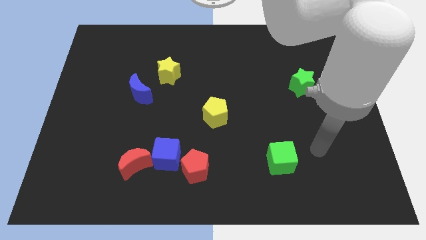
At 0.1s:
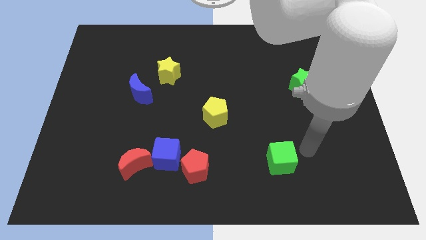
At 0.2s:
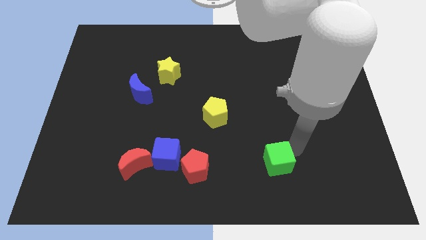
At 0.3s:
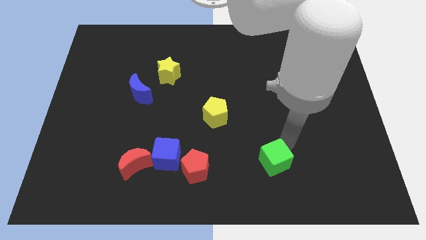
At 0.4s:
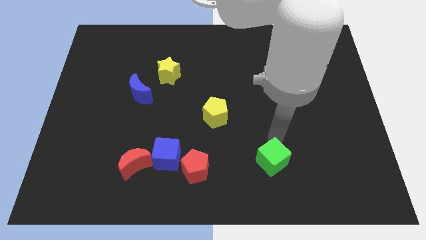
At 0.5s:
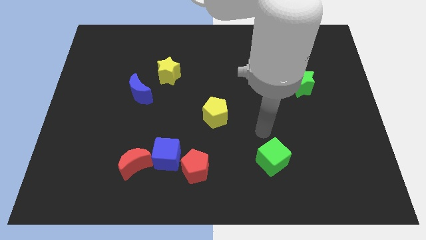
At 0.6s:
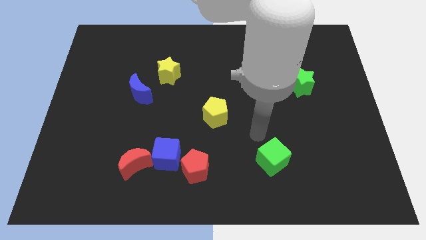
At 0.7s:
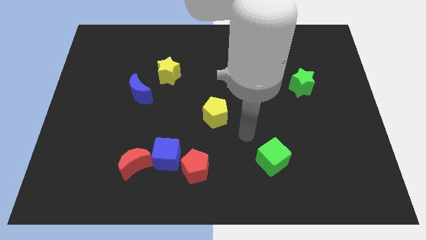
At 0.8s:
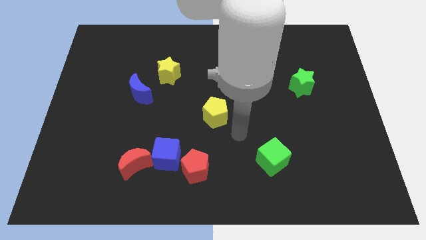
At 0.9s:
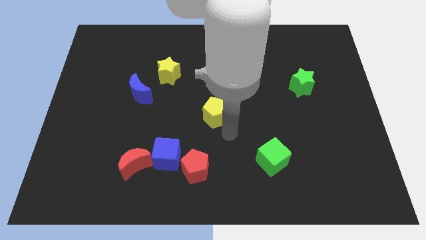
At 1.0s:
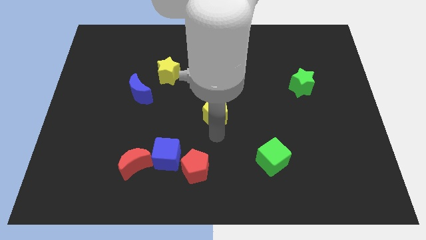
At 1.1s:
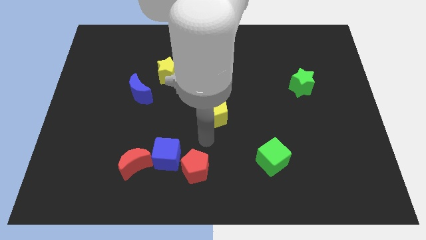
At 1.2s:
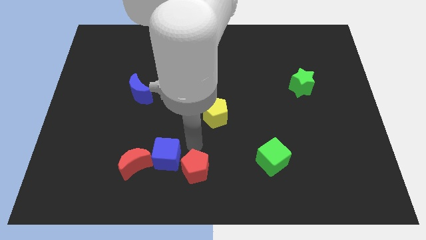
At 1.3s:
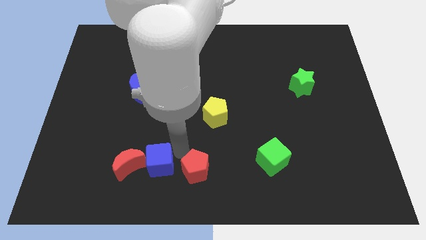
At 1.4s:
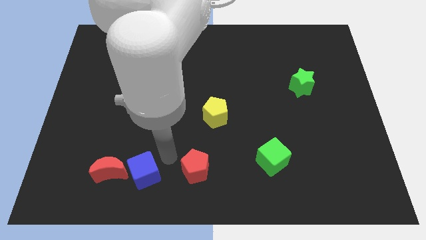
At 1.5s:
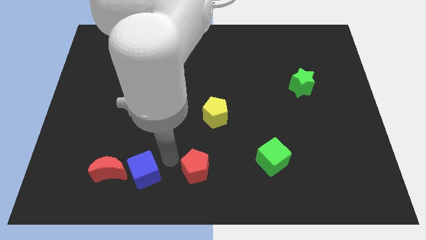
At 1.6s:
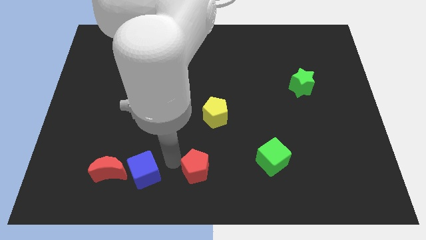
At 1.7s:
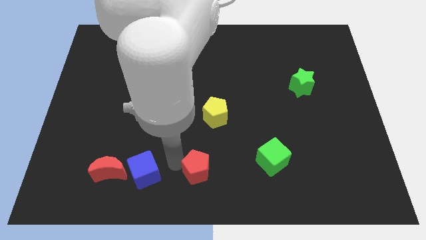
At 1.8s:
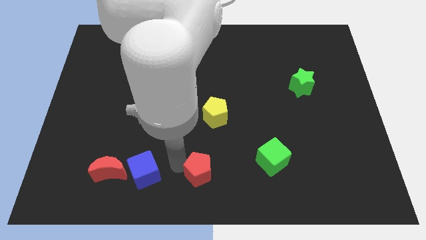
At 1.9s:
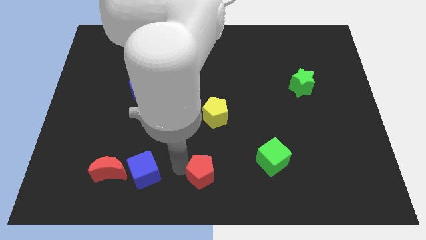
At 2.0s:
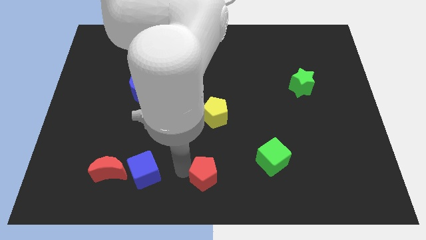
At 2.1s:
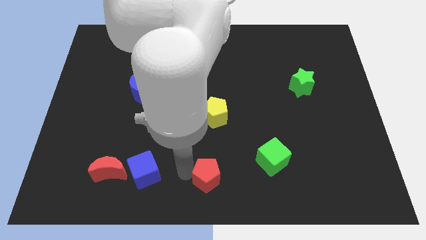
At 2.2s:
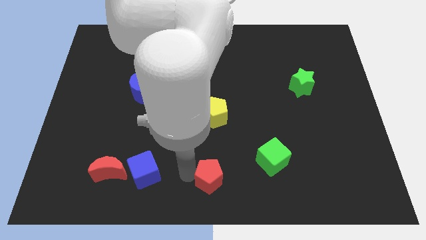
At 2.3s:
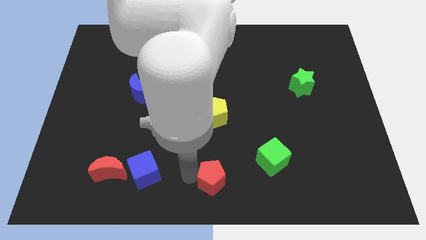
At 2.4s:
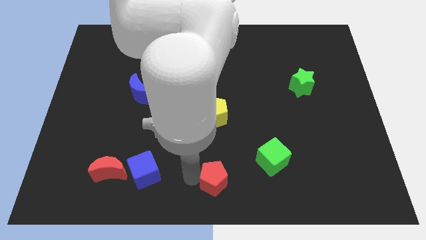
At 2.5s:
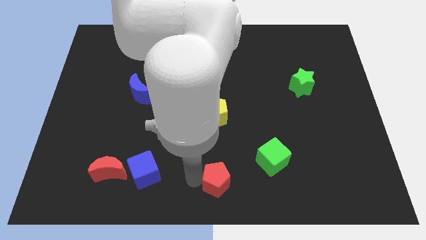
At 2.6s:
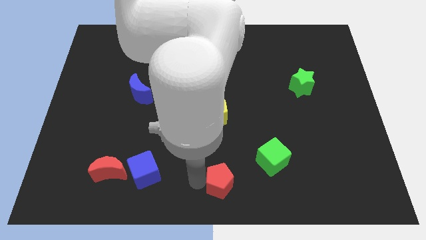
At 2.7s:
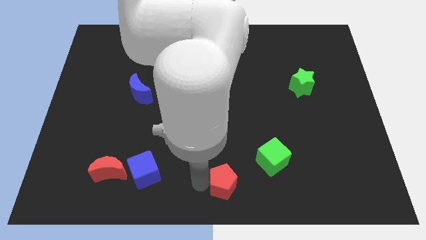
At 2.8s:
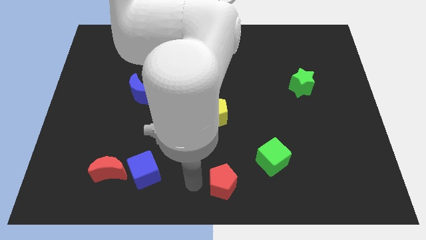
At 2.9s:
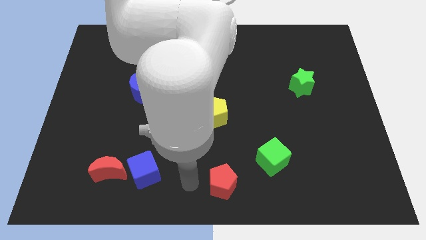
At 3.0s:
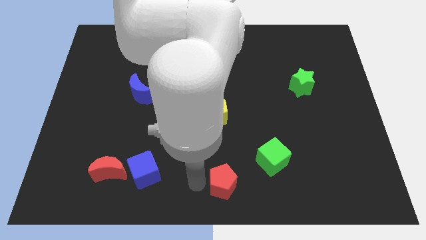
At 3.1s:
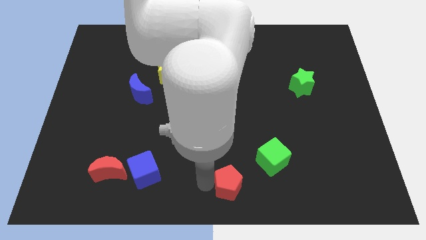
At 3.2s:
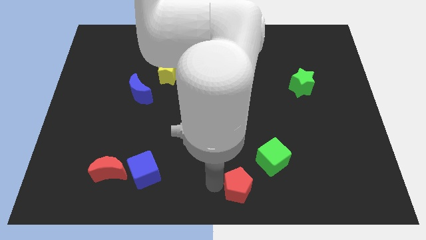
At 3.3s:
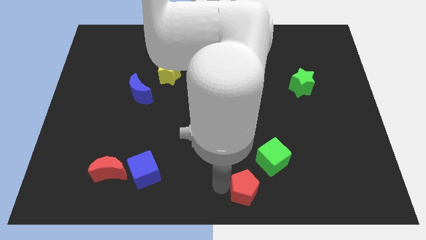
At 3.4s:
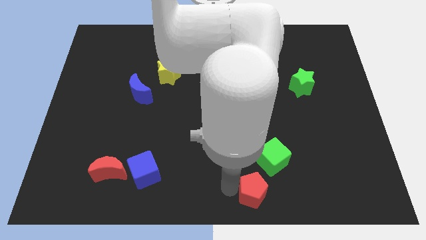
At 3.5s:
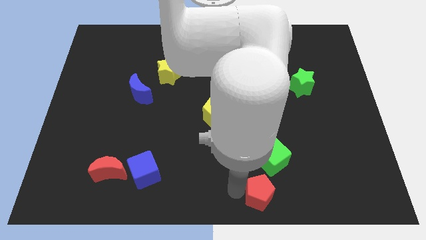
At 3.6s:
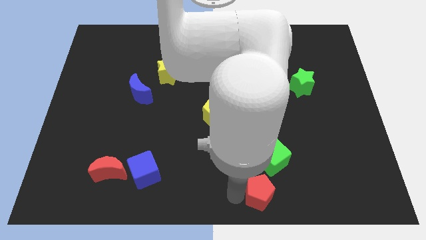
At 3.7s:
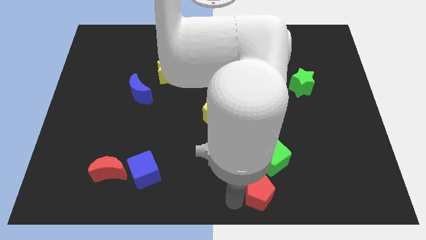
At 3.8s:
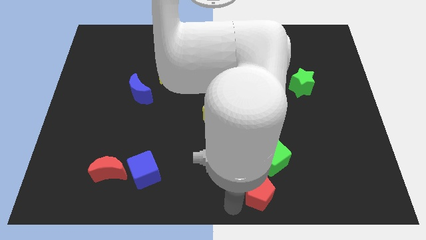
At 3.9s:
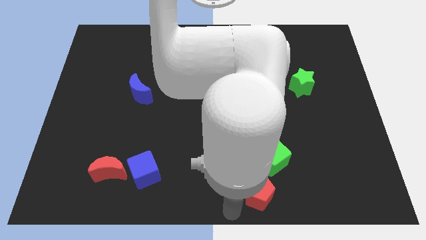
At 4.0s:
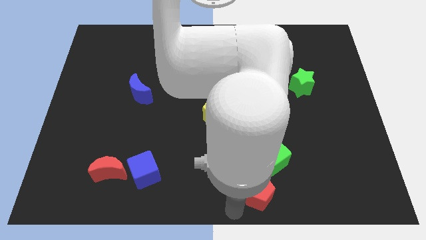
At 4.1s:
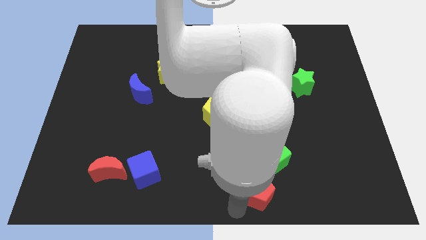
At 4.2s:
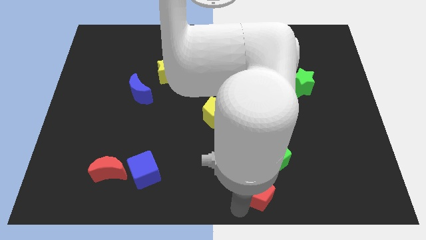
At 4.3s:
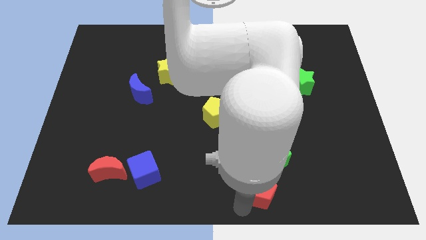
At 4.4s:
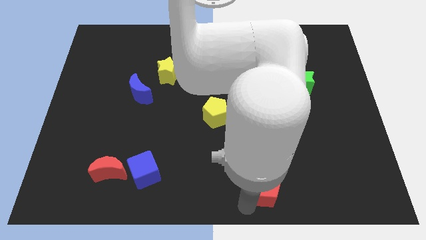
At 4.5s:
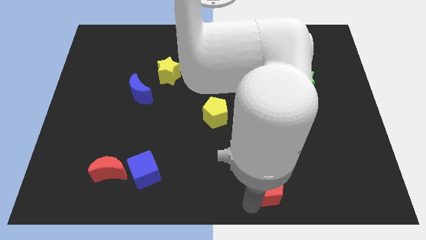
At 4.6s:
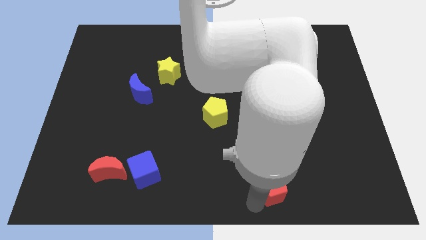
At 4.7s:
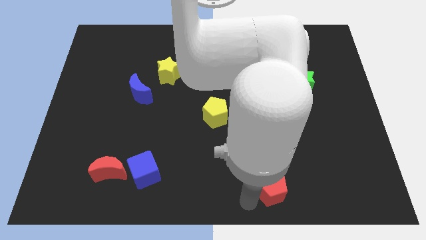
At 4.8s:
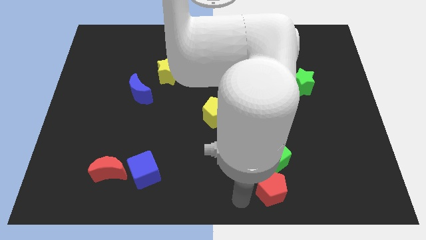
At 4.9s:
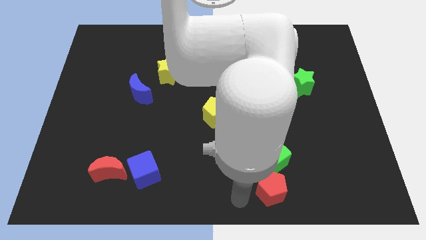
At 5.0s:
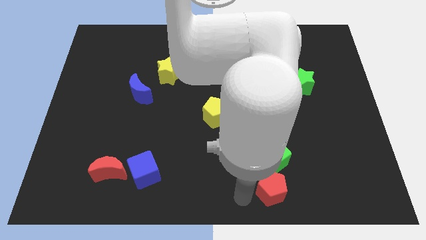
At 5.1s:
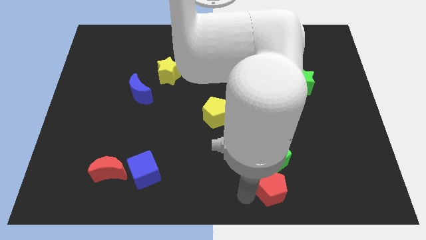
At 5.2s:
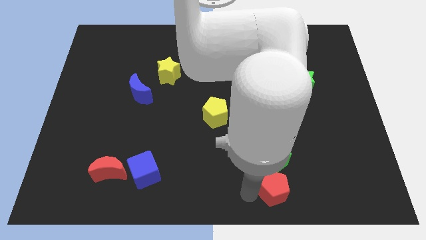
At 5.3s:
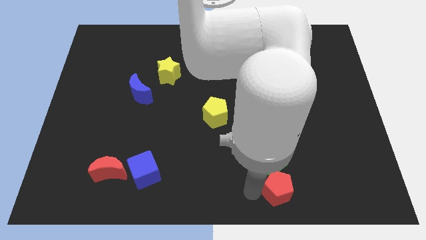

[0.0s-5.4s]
push the red pentagon diagonally down and to the right of the green cube

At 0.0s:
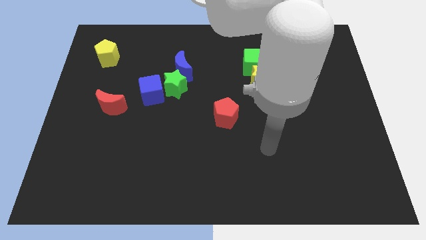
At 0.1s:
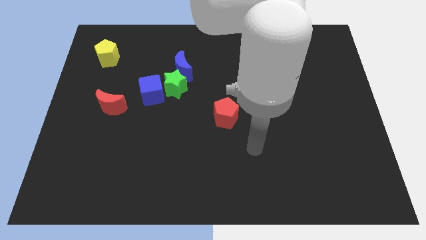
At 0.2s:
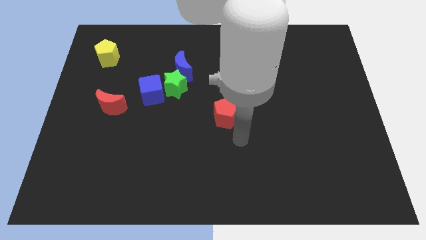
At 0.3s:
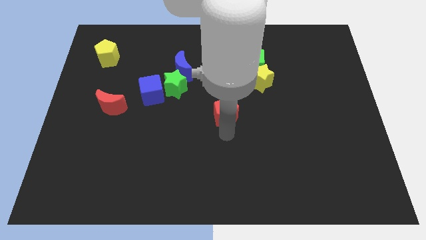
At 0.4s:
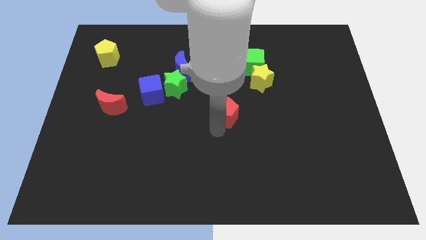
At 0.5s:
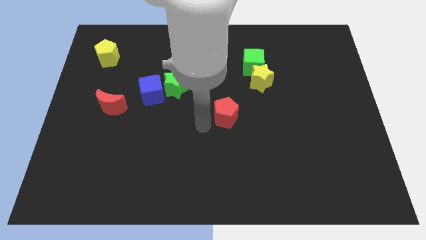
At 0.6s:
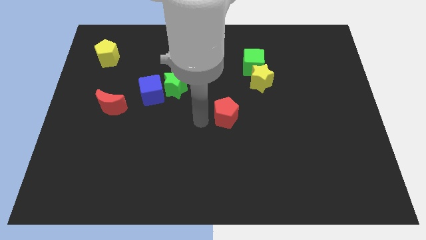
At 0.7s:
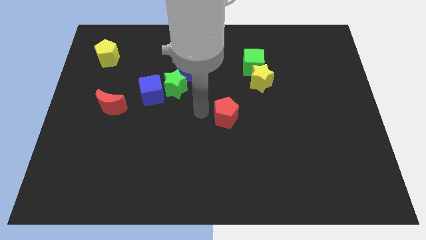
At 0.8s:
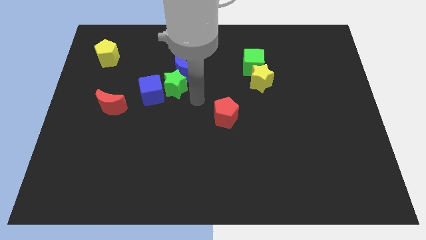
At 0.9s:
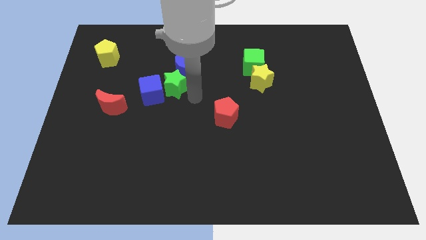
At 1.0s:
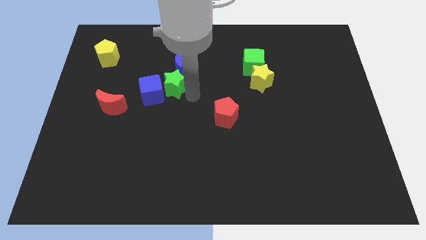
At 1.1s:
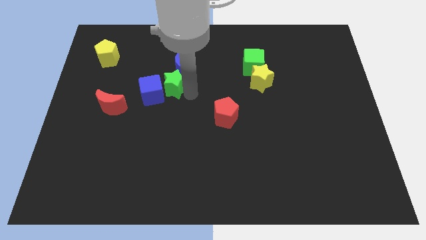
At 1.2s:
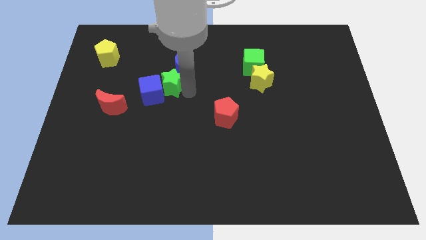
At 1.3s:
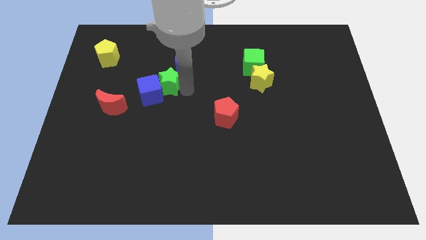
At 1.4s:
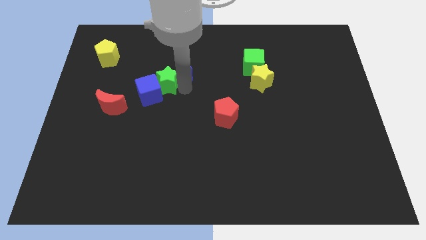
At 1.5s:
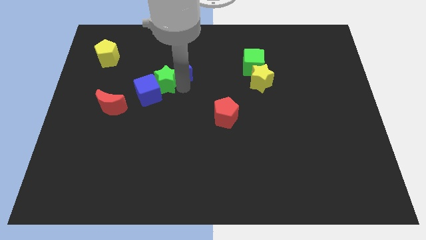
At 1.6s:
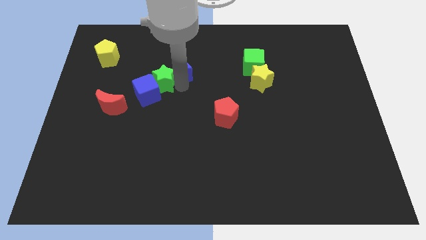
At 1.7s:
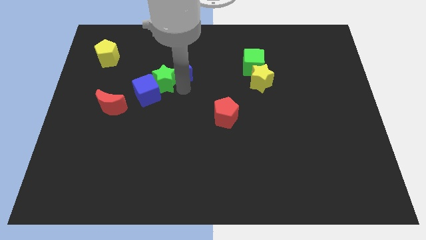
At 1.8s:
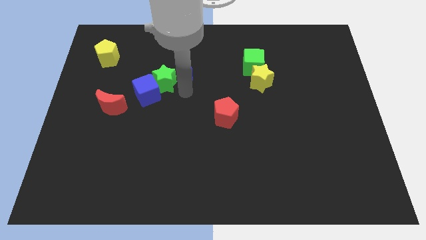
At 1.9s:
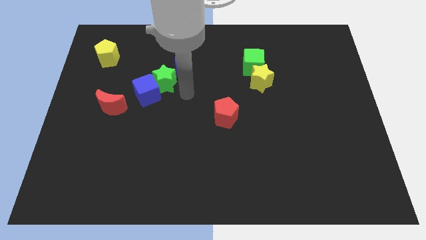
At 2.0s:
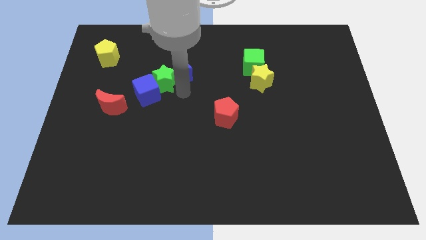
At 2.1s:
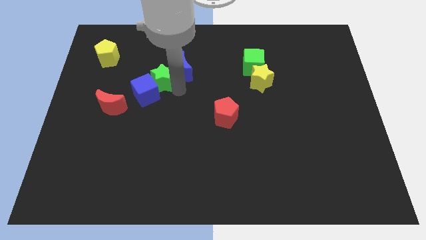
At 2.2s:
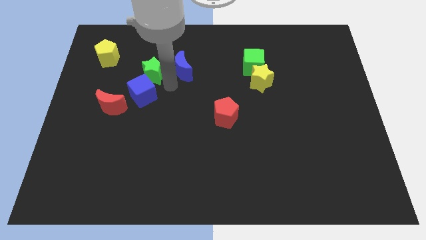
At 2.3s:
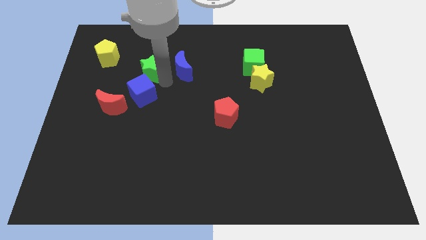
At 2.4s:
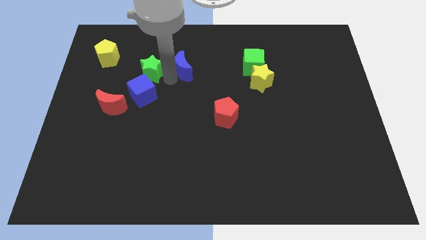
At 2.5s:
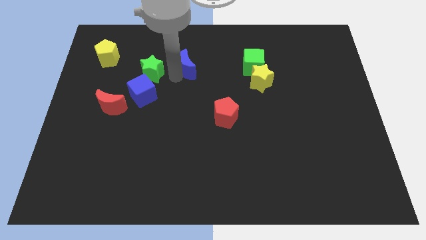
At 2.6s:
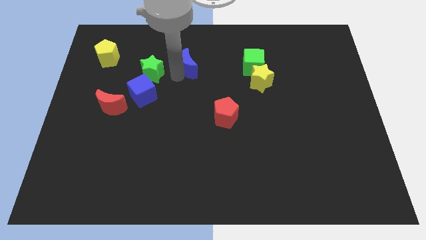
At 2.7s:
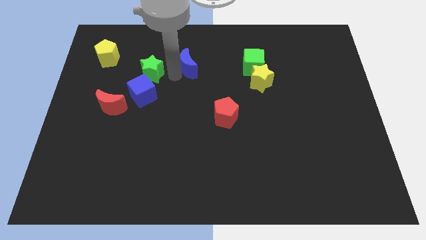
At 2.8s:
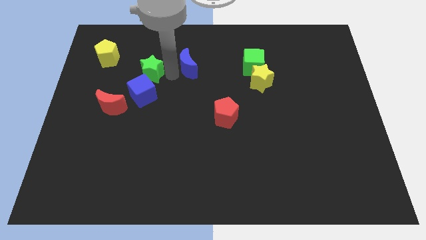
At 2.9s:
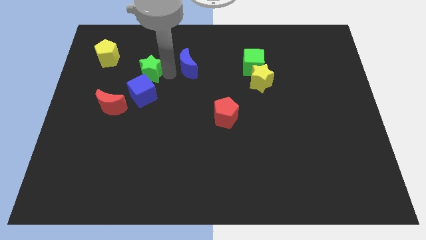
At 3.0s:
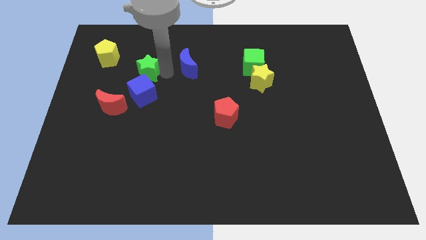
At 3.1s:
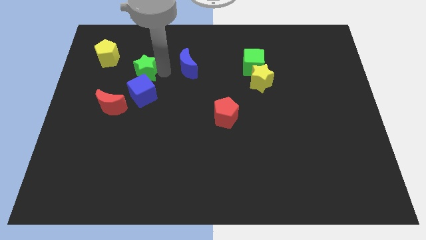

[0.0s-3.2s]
move the green star to the bottom right of the yellow pentagon
